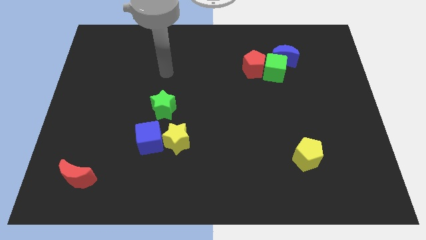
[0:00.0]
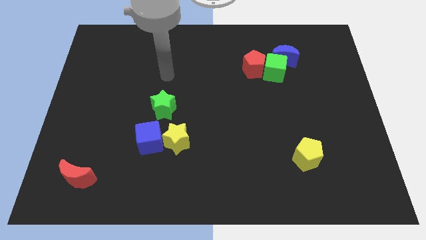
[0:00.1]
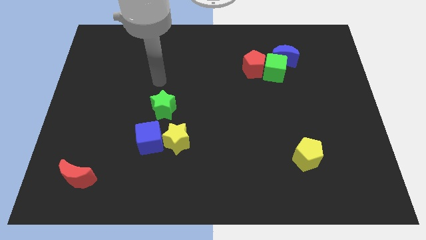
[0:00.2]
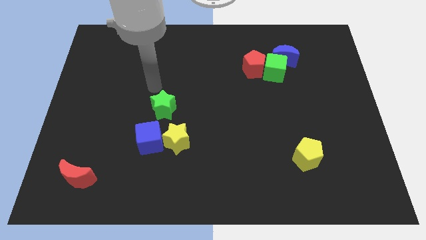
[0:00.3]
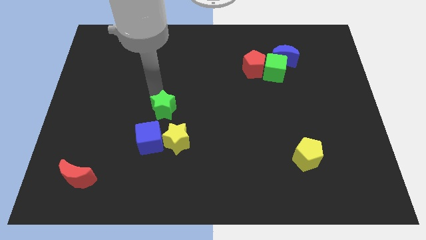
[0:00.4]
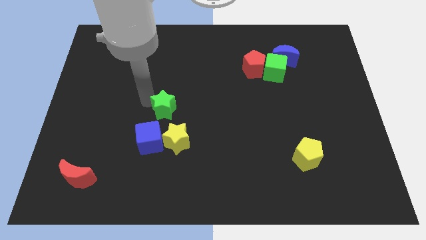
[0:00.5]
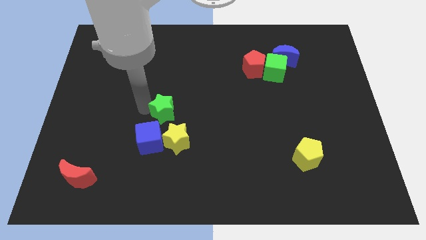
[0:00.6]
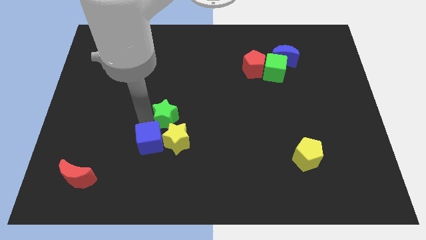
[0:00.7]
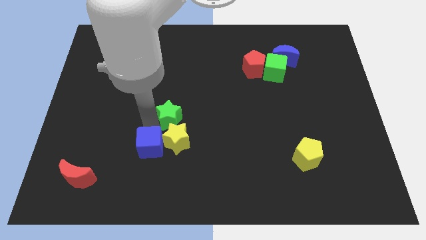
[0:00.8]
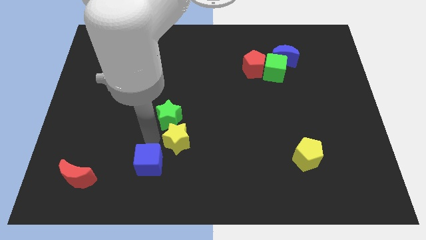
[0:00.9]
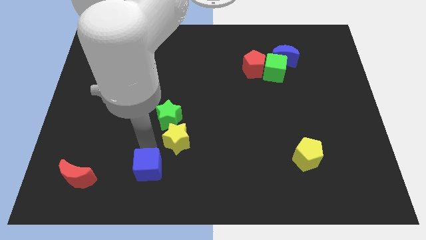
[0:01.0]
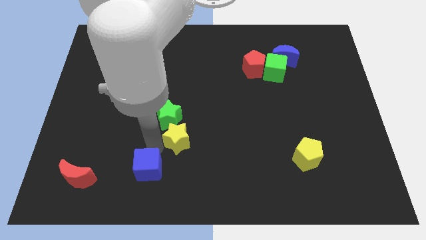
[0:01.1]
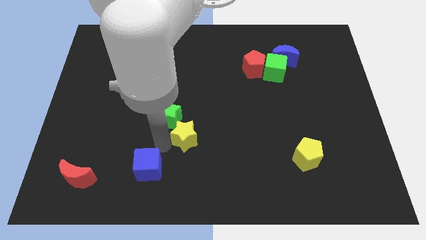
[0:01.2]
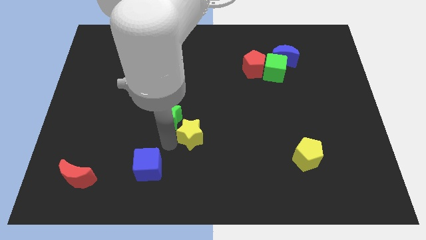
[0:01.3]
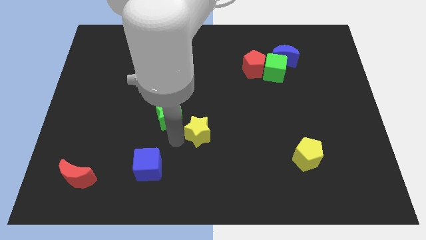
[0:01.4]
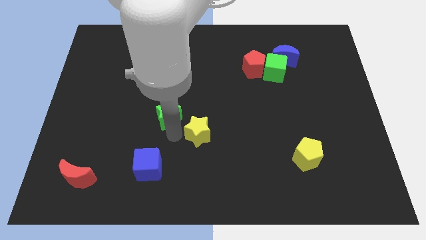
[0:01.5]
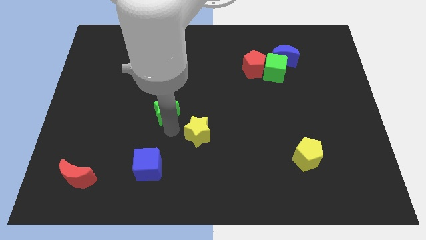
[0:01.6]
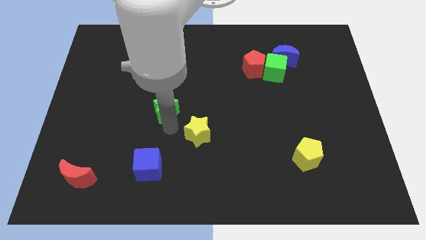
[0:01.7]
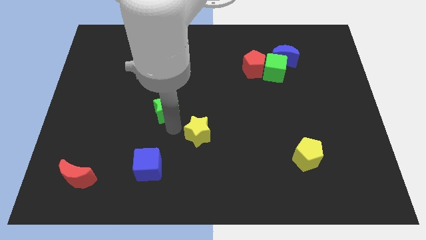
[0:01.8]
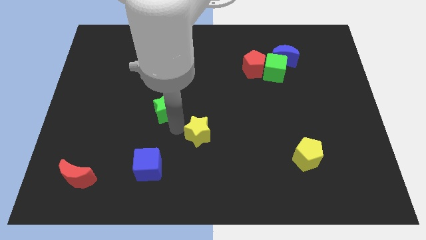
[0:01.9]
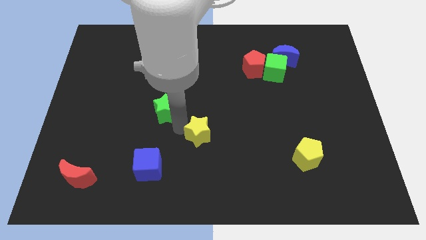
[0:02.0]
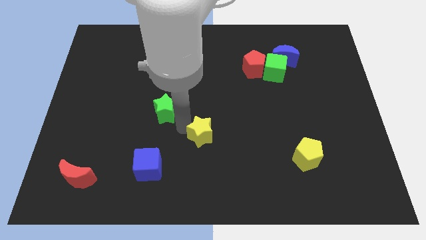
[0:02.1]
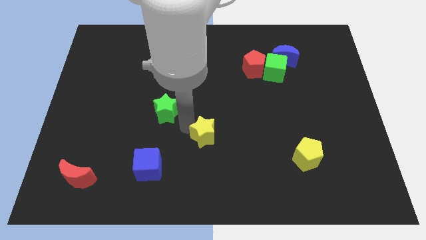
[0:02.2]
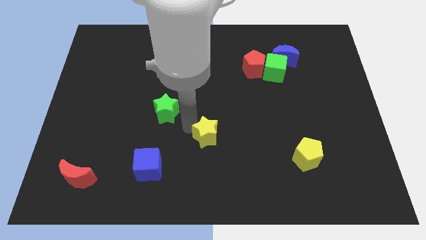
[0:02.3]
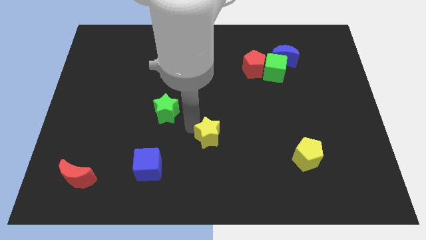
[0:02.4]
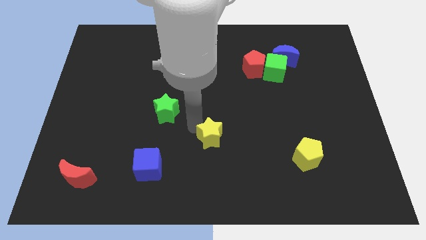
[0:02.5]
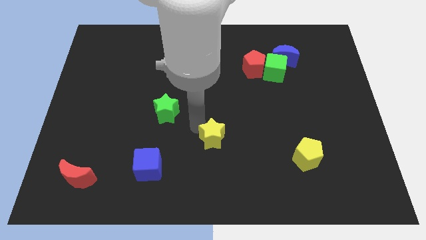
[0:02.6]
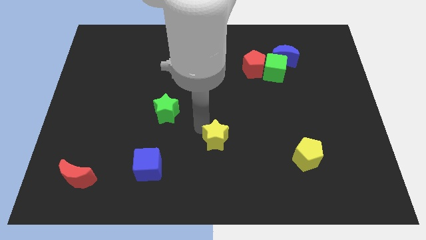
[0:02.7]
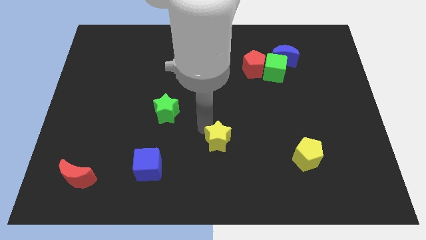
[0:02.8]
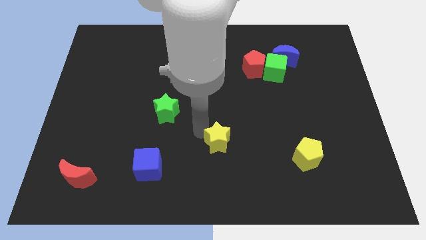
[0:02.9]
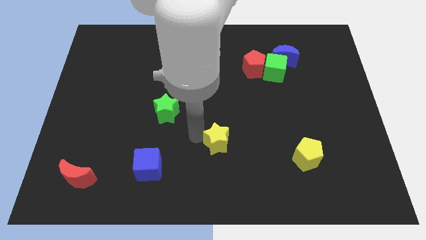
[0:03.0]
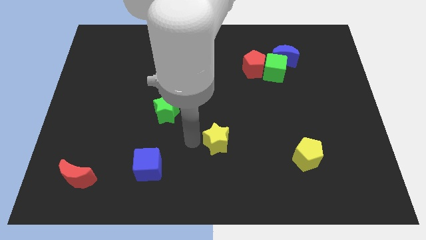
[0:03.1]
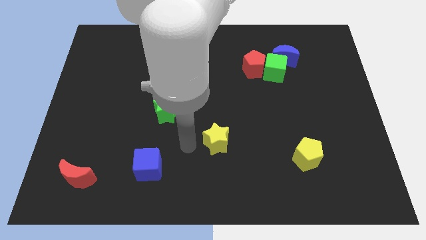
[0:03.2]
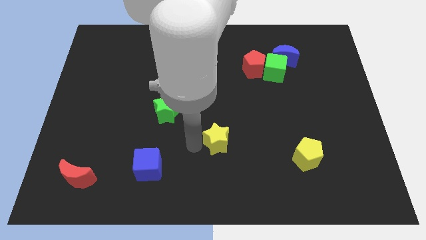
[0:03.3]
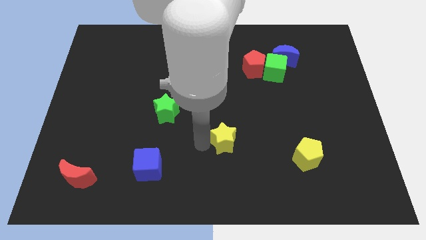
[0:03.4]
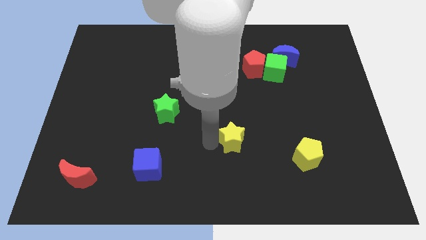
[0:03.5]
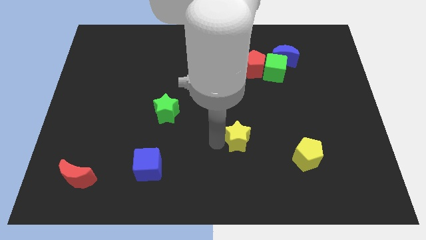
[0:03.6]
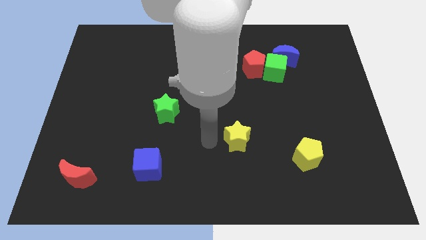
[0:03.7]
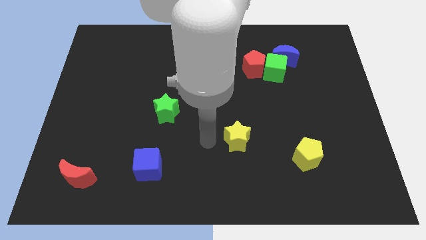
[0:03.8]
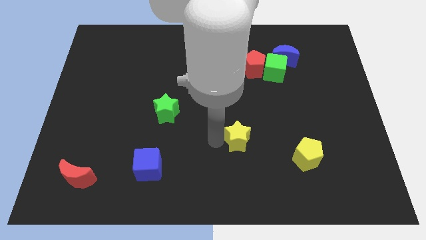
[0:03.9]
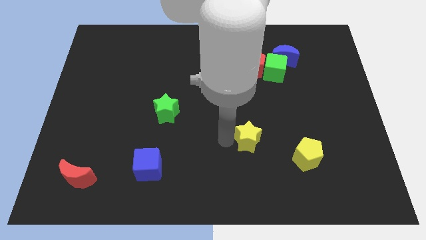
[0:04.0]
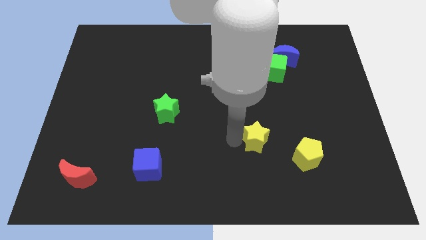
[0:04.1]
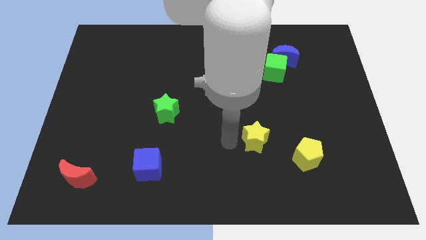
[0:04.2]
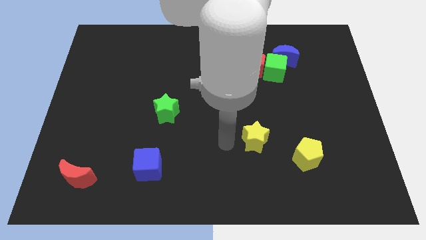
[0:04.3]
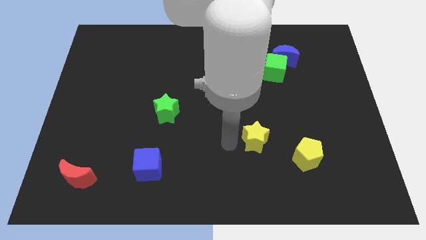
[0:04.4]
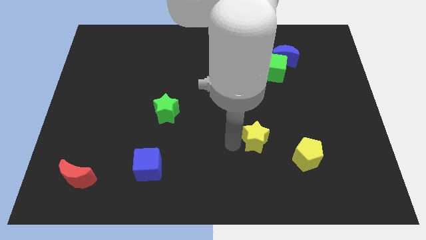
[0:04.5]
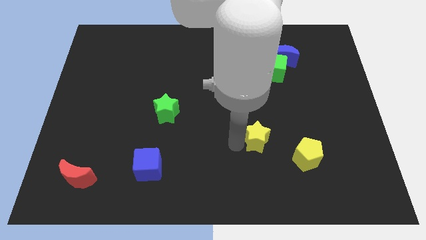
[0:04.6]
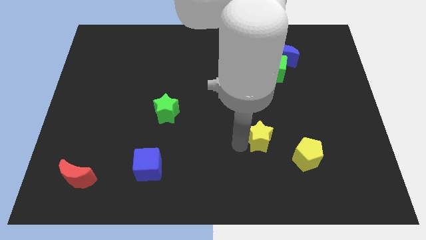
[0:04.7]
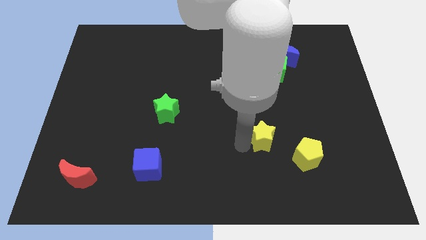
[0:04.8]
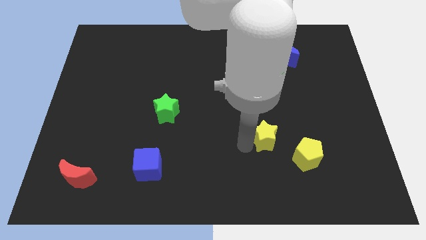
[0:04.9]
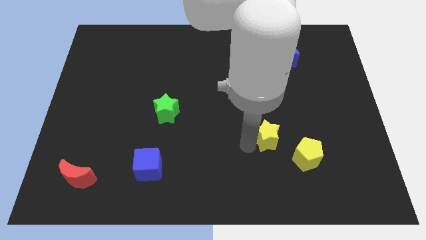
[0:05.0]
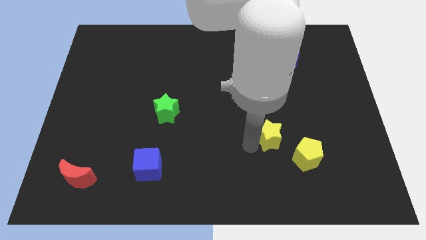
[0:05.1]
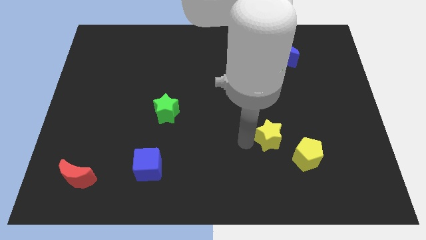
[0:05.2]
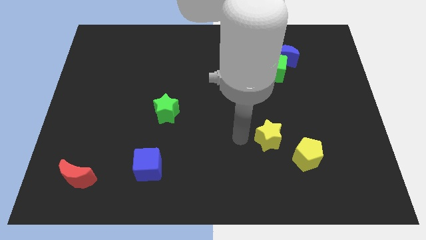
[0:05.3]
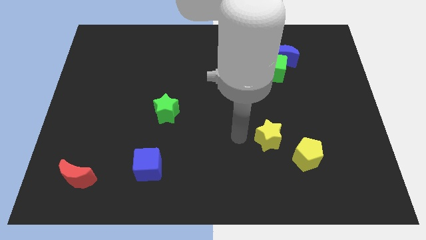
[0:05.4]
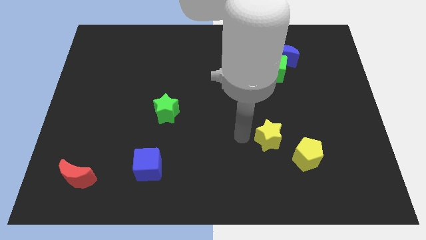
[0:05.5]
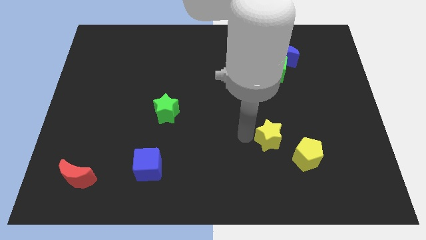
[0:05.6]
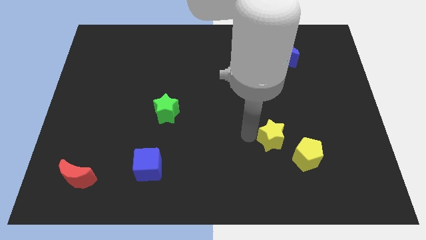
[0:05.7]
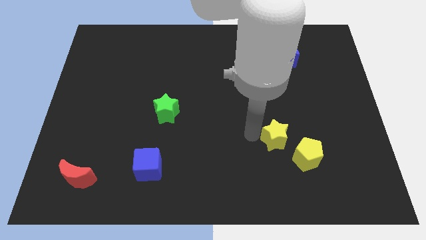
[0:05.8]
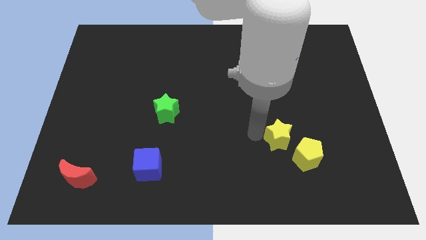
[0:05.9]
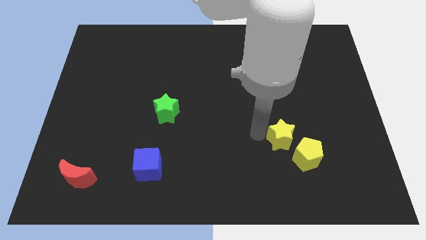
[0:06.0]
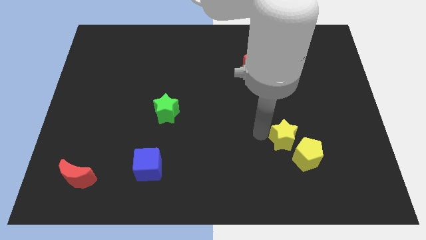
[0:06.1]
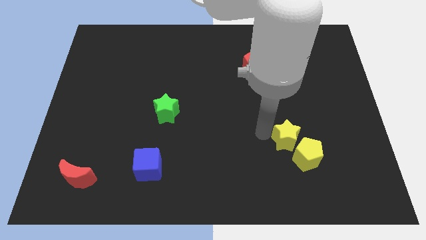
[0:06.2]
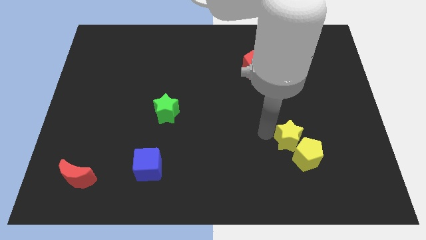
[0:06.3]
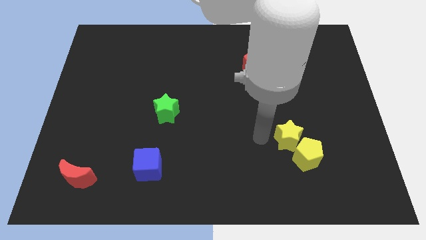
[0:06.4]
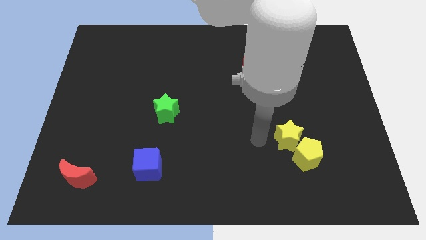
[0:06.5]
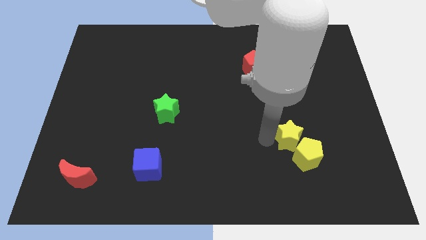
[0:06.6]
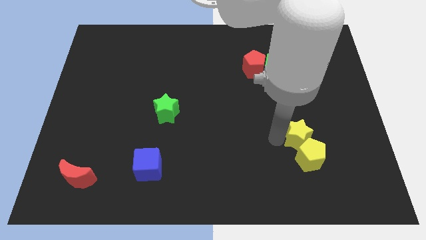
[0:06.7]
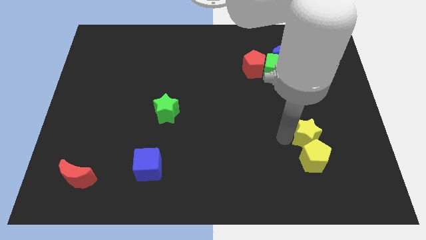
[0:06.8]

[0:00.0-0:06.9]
put the yellow star to the top right side of the yellow pentagon
